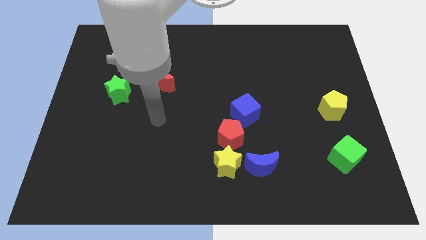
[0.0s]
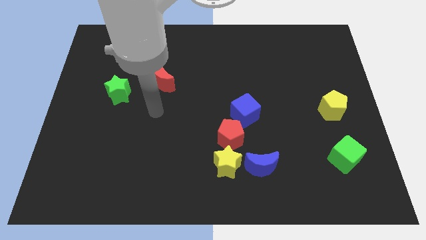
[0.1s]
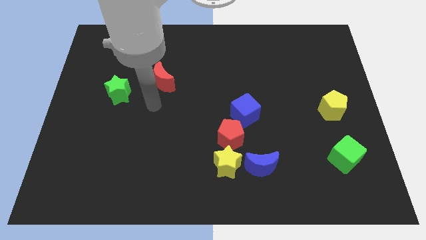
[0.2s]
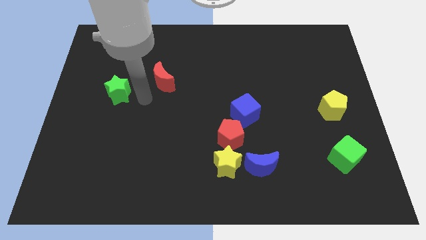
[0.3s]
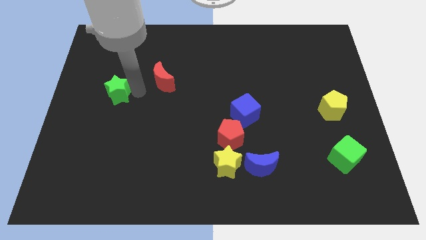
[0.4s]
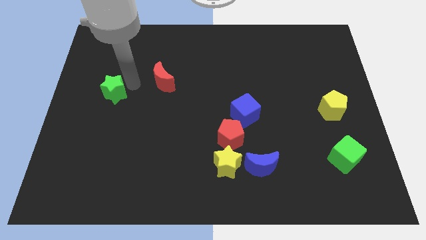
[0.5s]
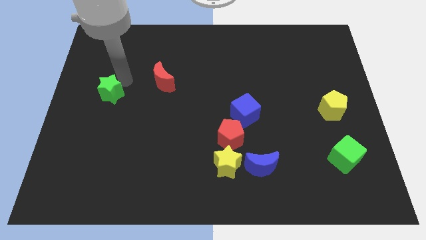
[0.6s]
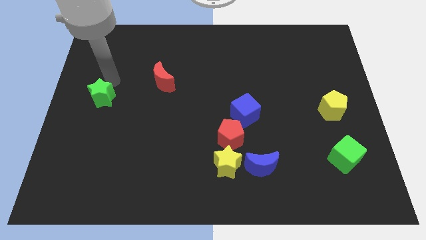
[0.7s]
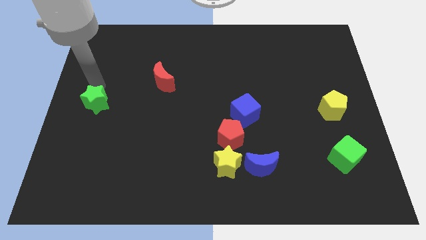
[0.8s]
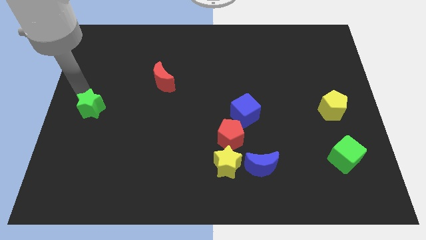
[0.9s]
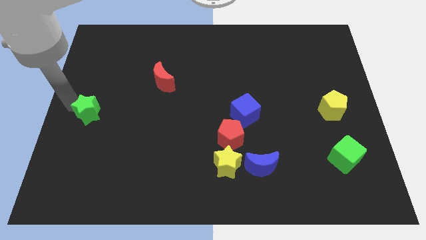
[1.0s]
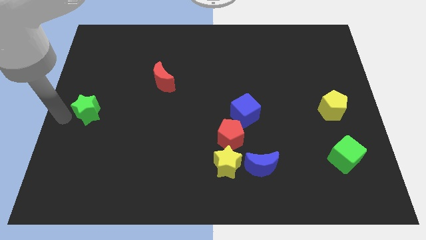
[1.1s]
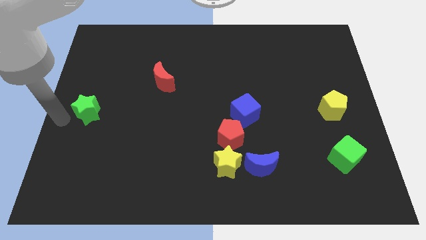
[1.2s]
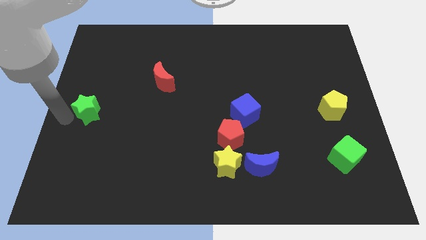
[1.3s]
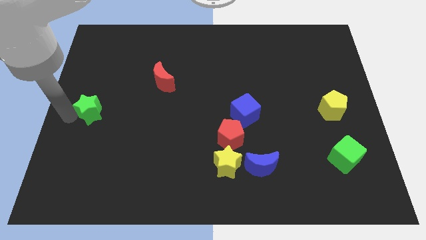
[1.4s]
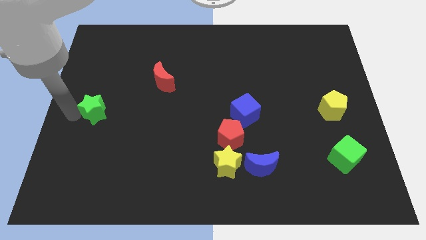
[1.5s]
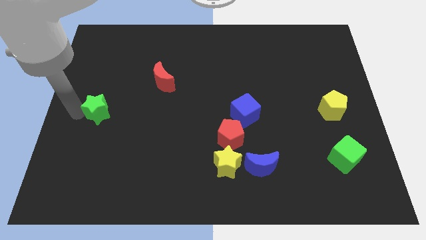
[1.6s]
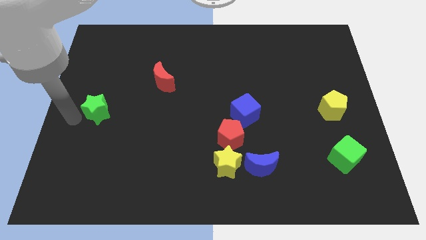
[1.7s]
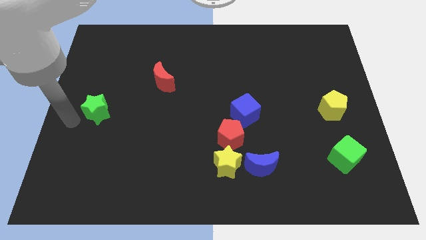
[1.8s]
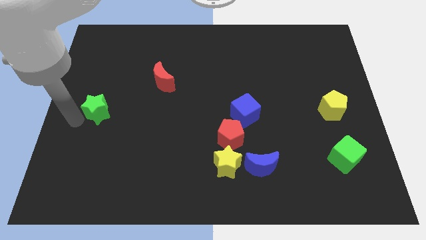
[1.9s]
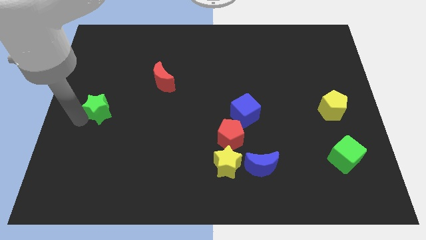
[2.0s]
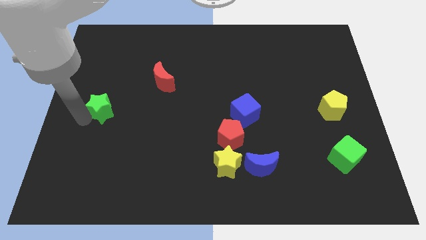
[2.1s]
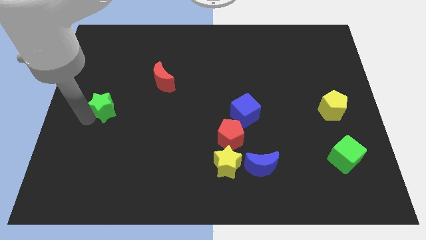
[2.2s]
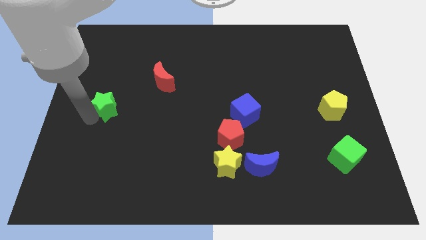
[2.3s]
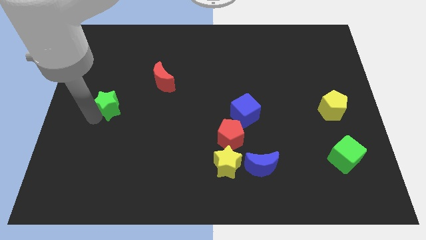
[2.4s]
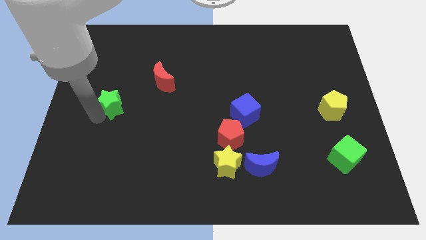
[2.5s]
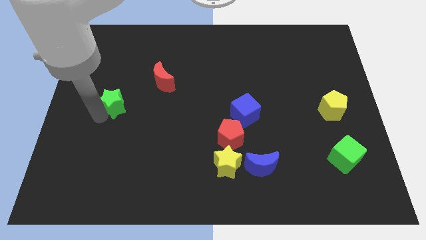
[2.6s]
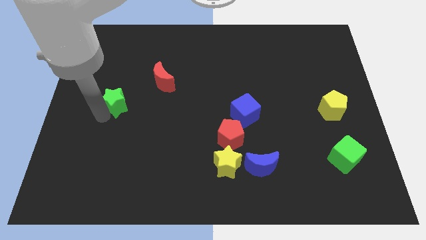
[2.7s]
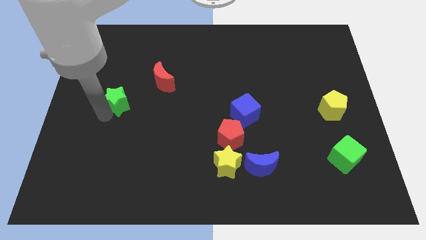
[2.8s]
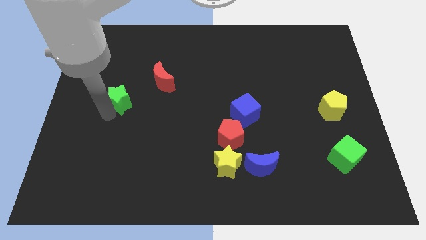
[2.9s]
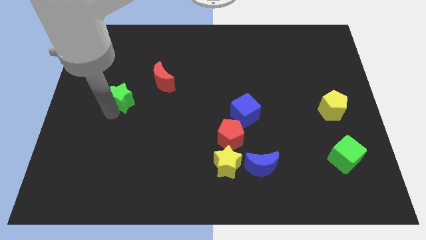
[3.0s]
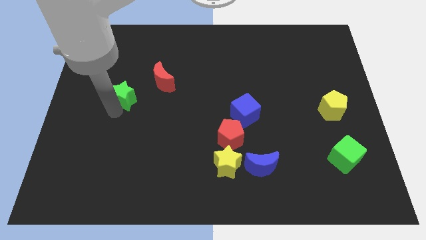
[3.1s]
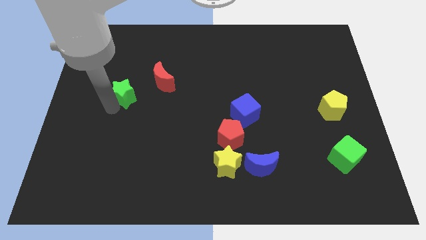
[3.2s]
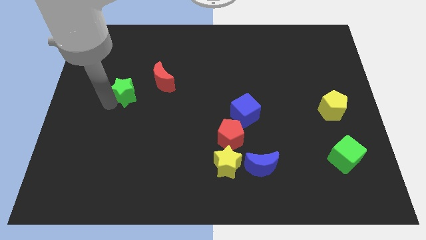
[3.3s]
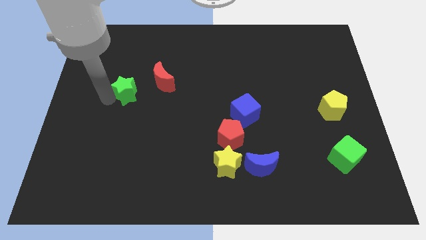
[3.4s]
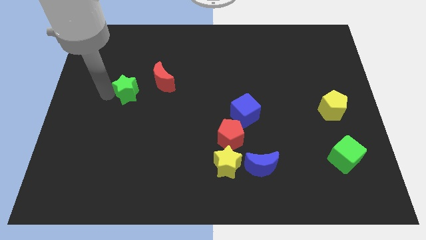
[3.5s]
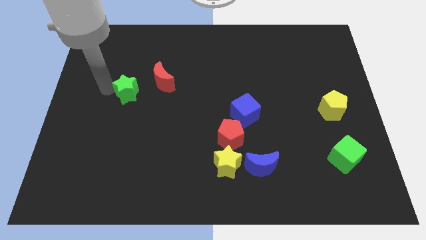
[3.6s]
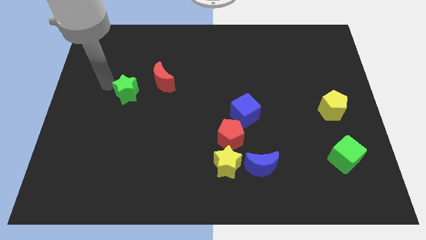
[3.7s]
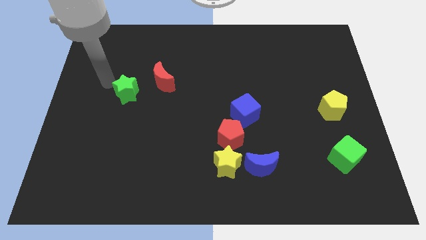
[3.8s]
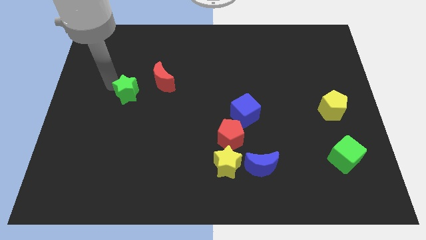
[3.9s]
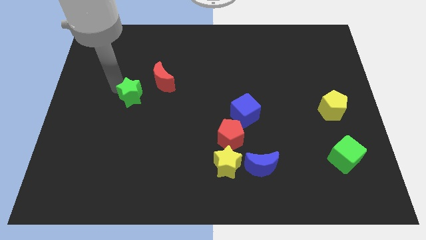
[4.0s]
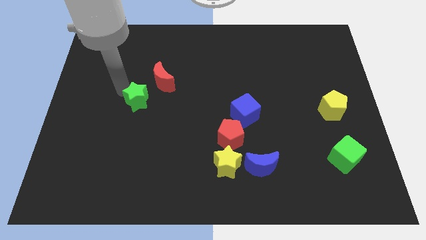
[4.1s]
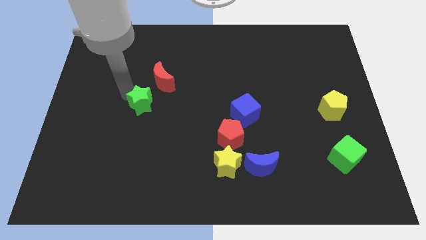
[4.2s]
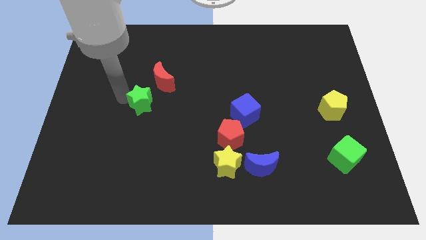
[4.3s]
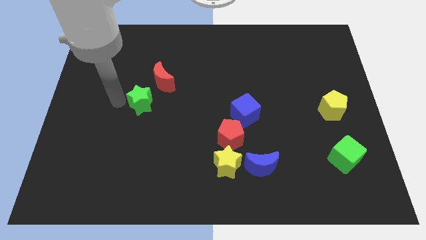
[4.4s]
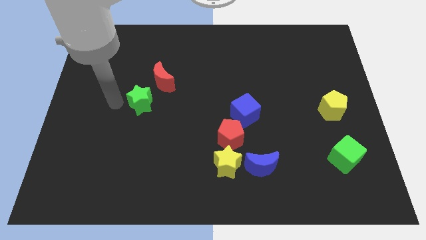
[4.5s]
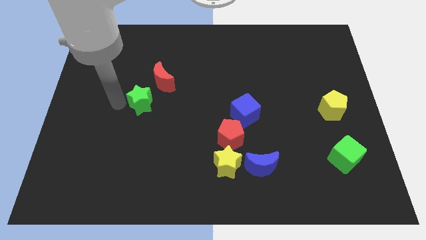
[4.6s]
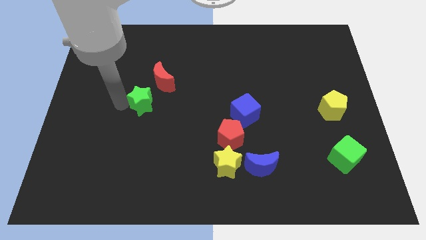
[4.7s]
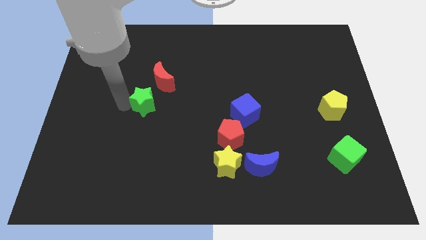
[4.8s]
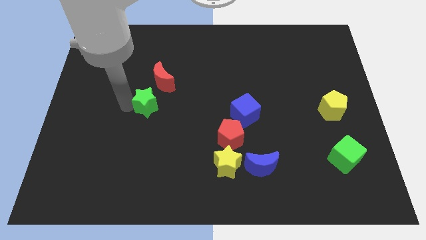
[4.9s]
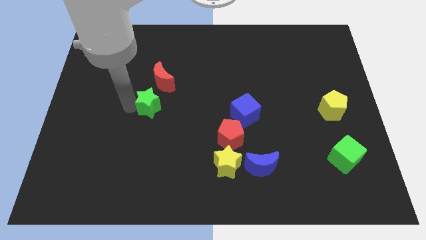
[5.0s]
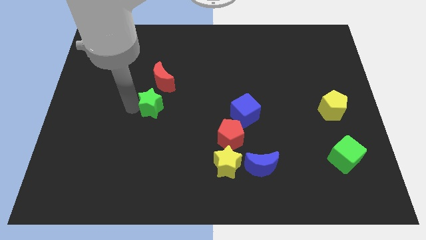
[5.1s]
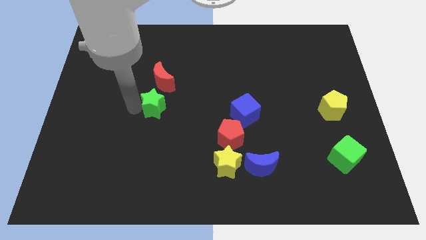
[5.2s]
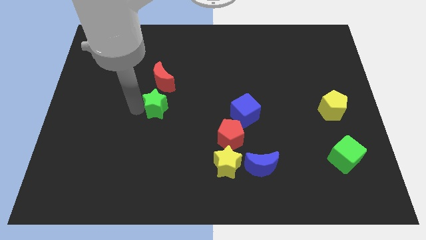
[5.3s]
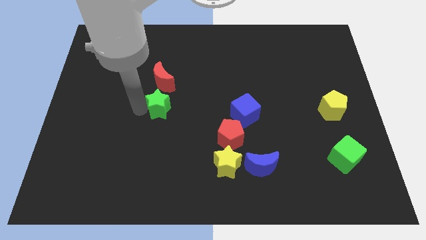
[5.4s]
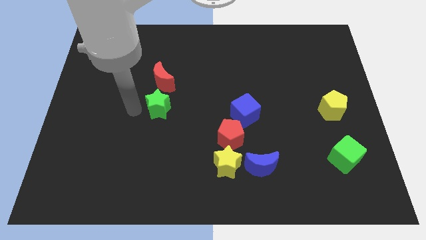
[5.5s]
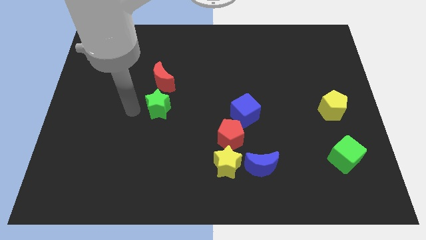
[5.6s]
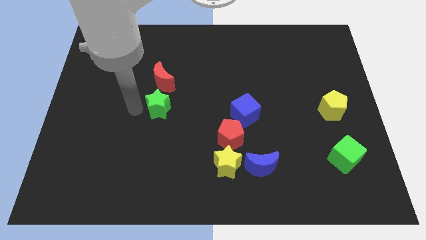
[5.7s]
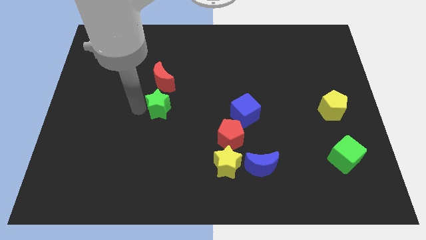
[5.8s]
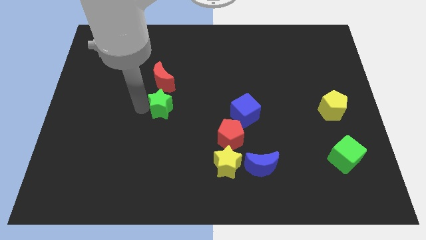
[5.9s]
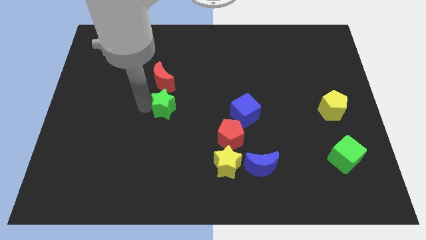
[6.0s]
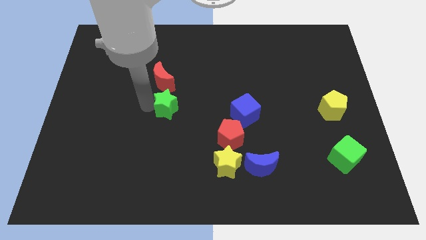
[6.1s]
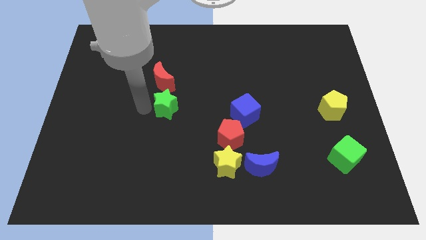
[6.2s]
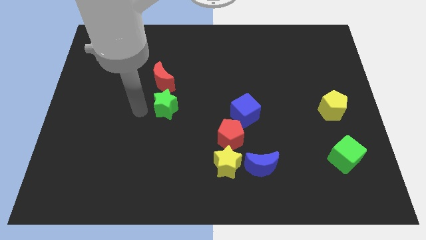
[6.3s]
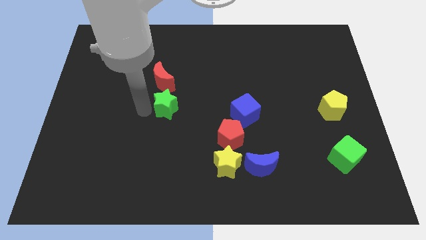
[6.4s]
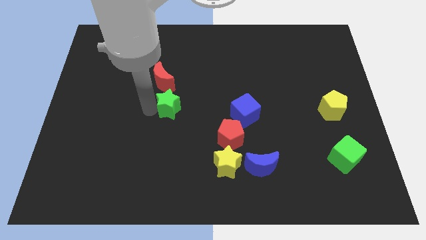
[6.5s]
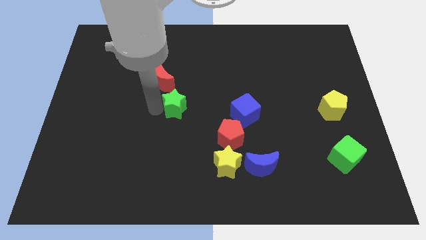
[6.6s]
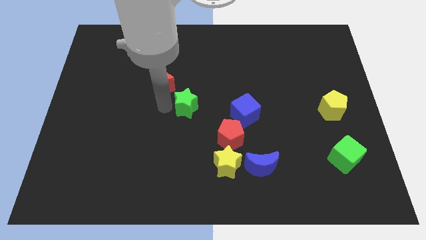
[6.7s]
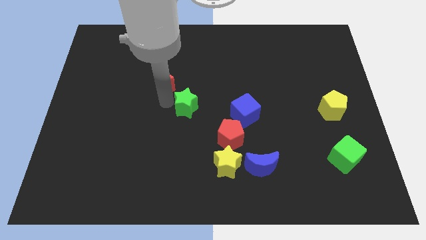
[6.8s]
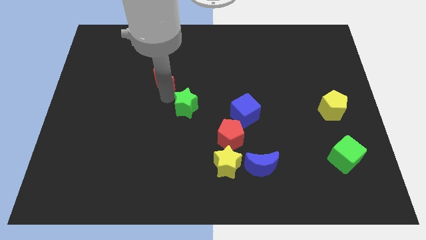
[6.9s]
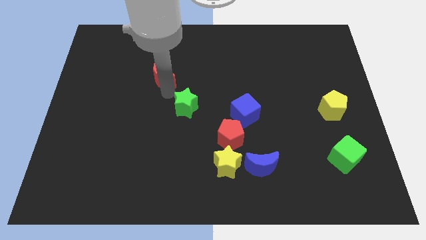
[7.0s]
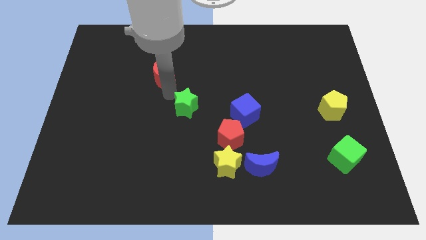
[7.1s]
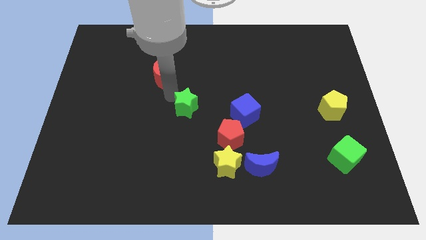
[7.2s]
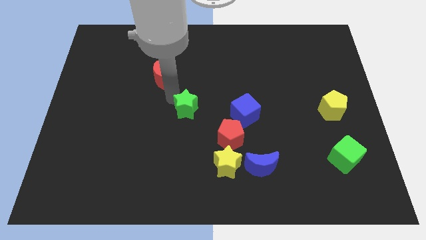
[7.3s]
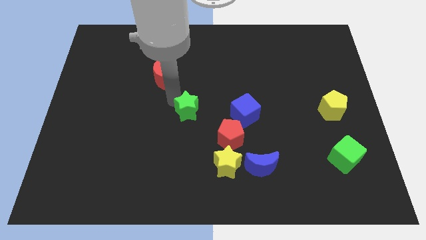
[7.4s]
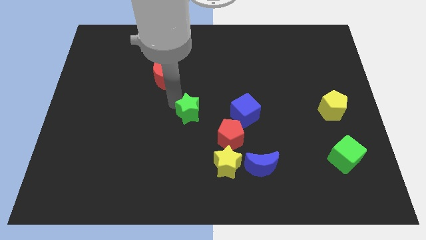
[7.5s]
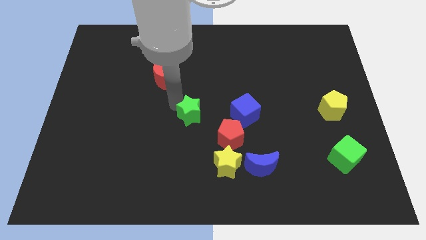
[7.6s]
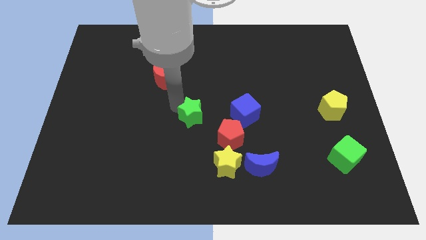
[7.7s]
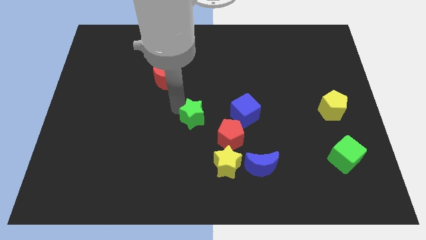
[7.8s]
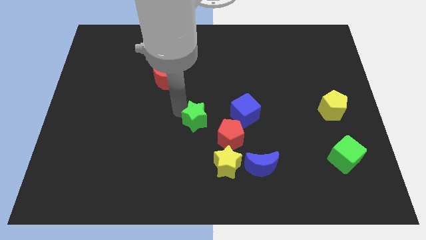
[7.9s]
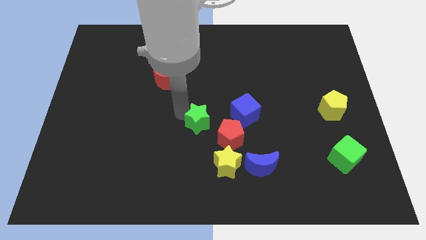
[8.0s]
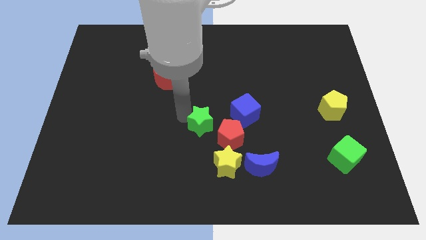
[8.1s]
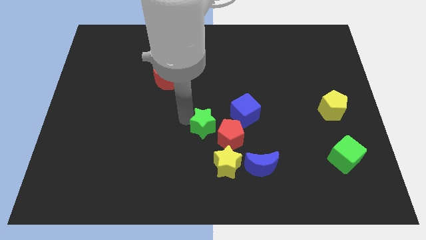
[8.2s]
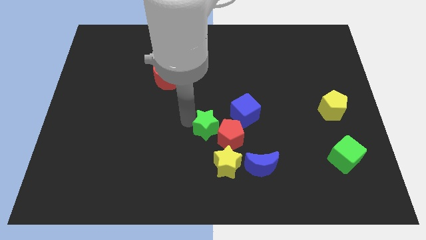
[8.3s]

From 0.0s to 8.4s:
put the green star close to the red pentagon
